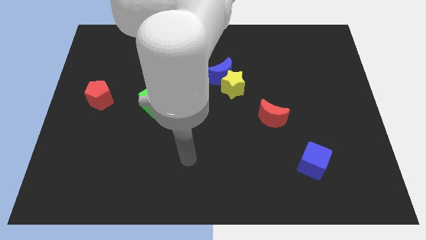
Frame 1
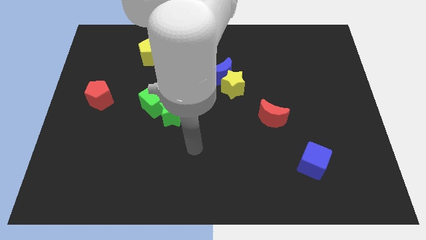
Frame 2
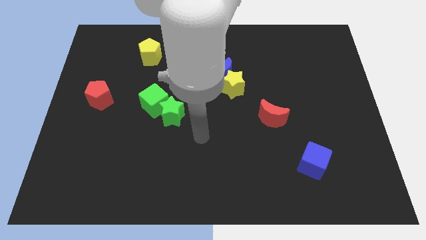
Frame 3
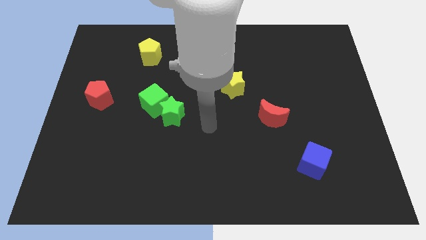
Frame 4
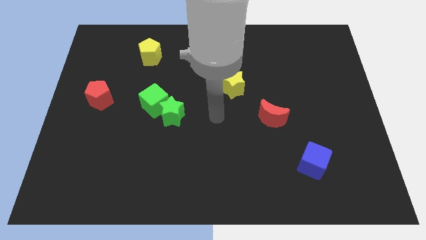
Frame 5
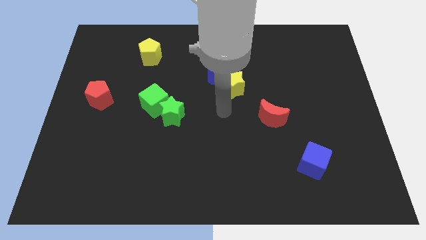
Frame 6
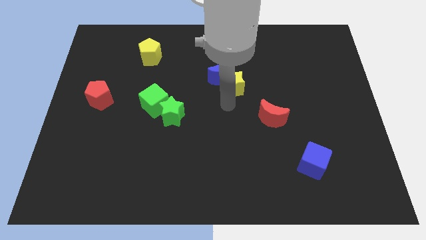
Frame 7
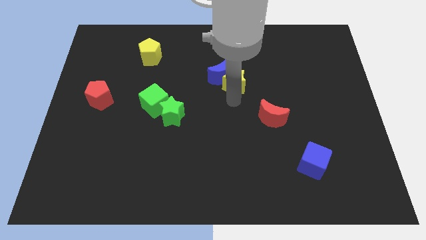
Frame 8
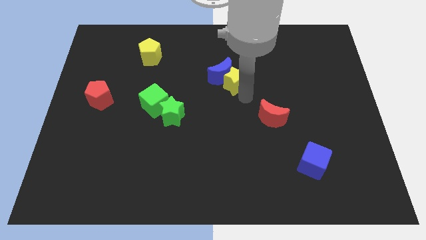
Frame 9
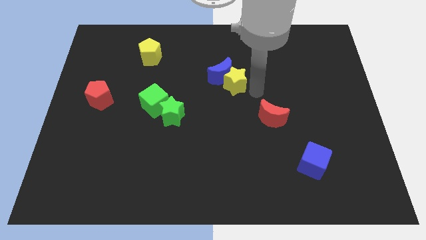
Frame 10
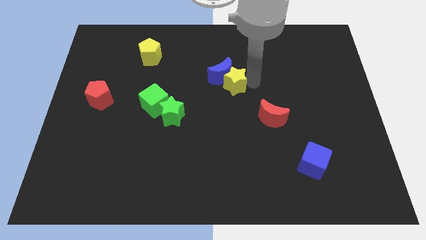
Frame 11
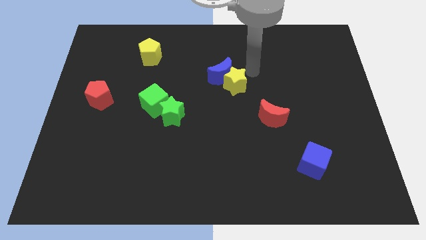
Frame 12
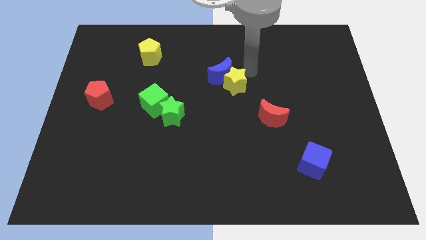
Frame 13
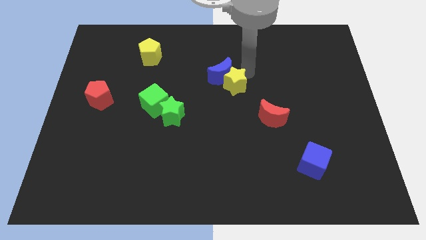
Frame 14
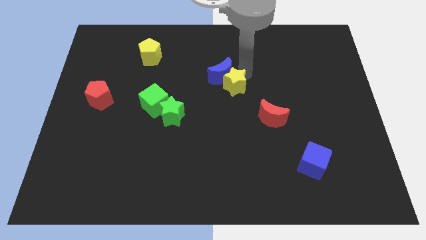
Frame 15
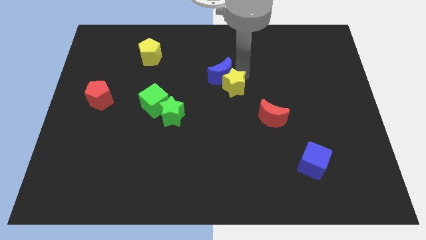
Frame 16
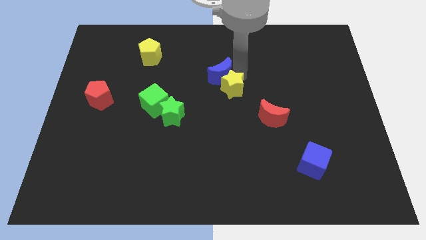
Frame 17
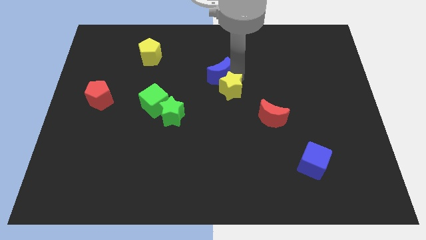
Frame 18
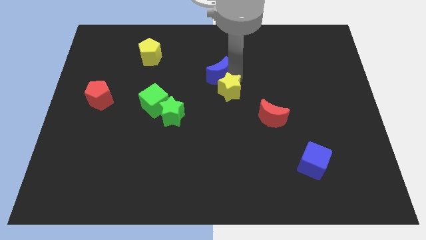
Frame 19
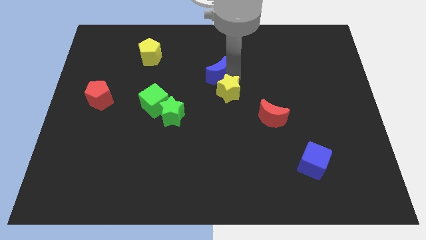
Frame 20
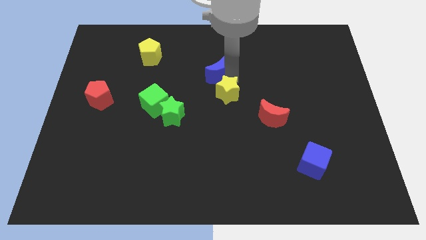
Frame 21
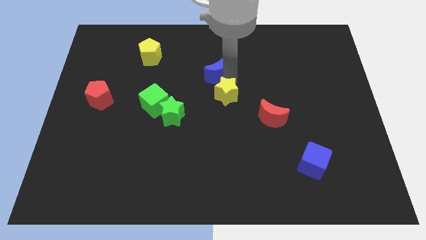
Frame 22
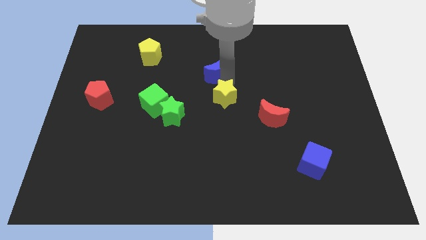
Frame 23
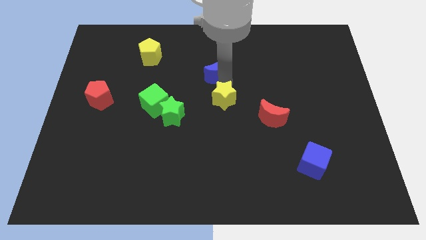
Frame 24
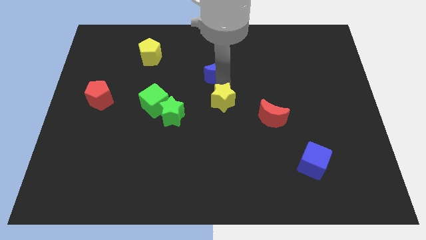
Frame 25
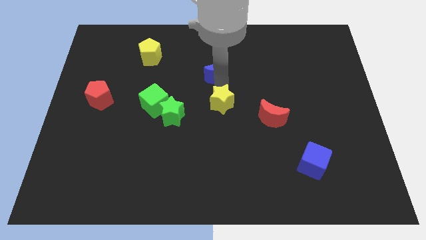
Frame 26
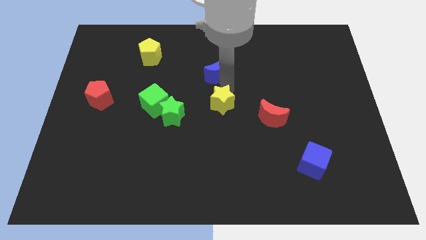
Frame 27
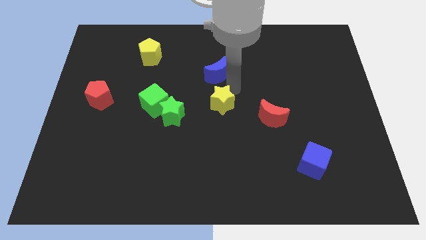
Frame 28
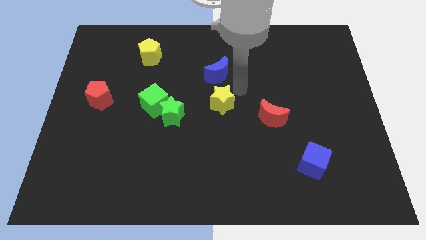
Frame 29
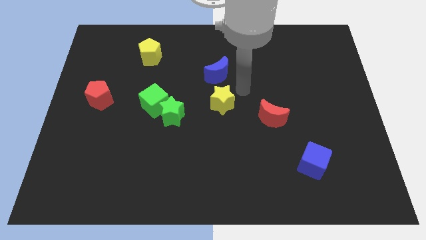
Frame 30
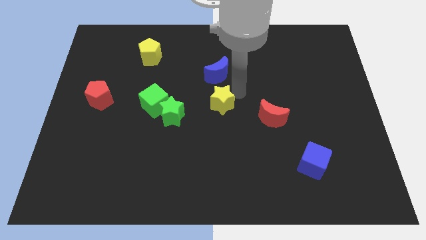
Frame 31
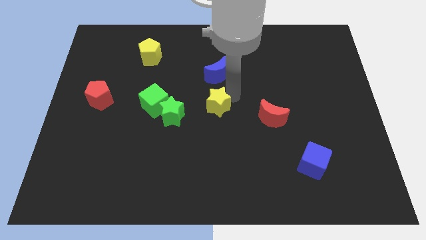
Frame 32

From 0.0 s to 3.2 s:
push the yellow star downwards and to the left a bit

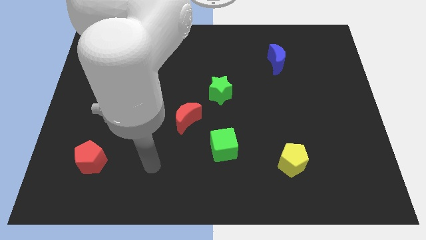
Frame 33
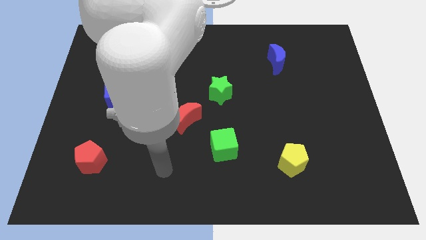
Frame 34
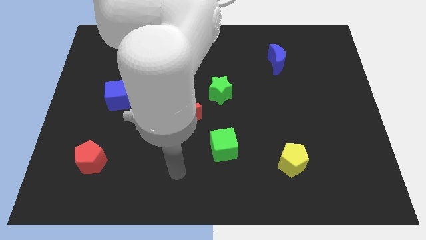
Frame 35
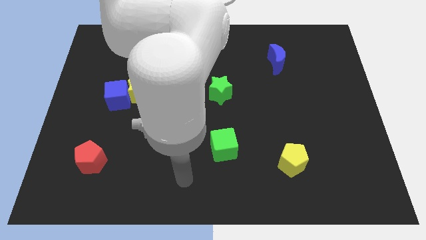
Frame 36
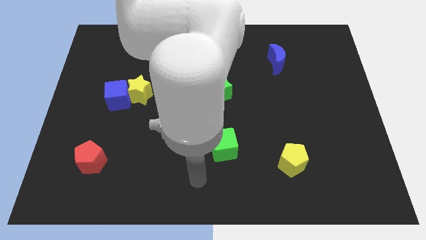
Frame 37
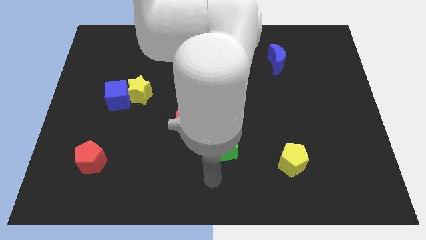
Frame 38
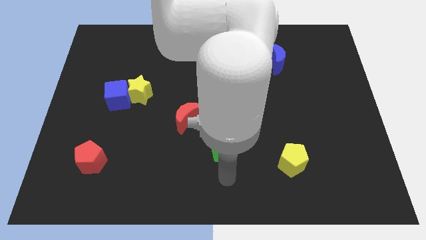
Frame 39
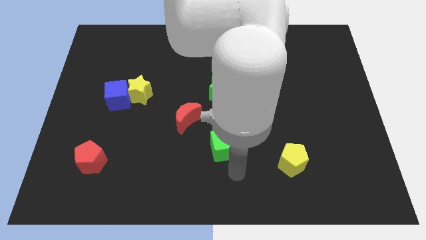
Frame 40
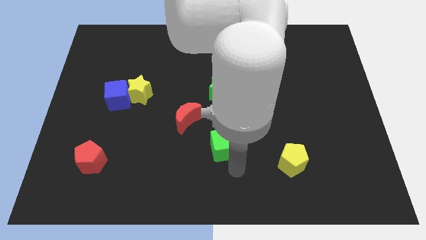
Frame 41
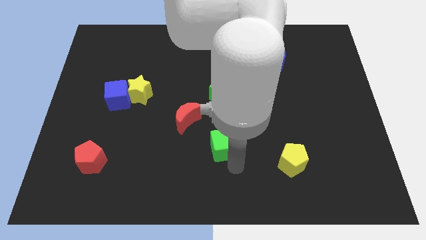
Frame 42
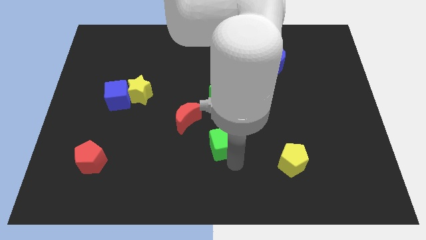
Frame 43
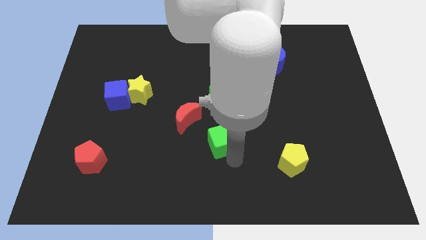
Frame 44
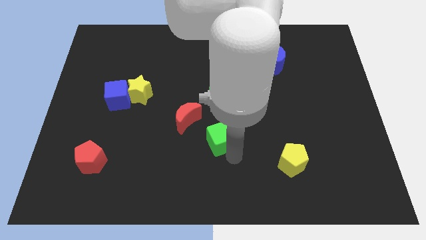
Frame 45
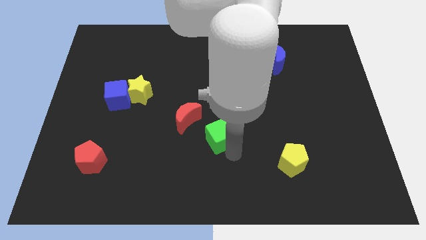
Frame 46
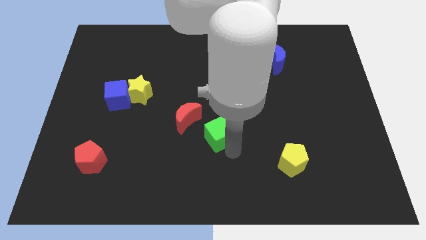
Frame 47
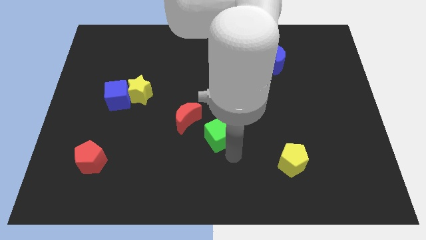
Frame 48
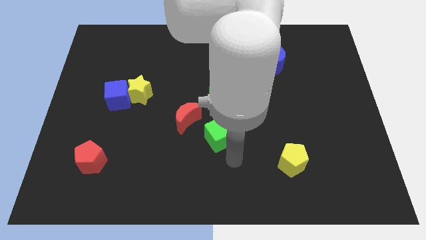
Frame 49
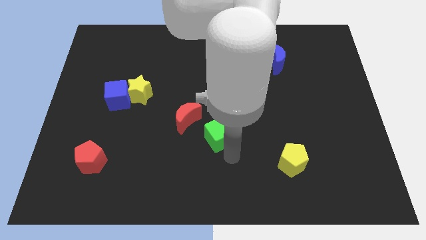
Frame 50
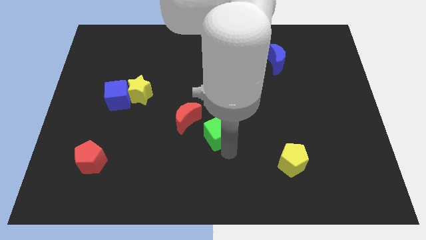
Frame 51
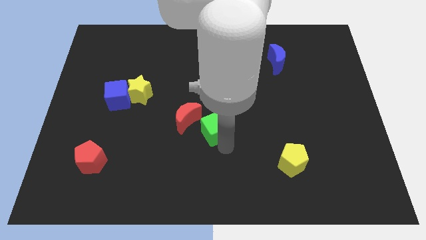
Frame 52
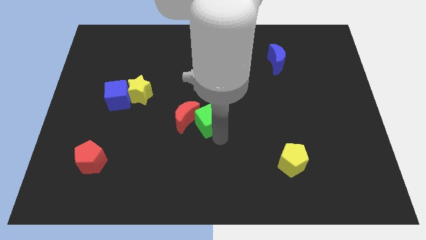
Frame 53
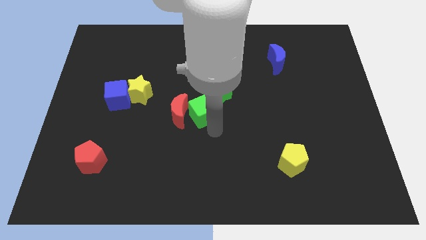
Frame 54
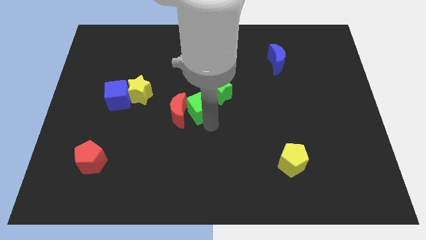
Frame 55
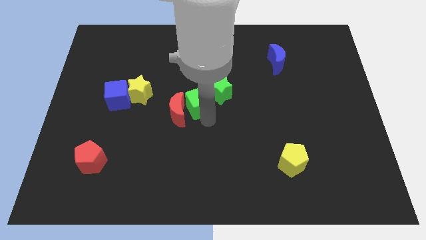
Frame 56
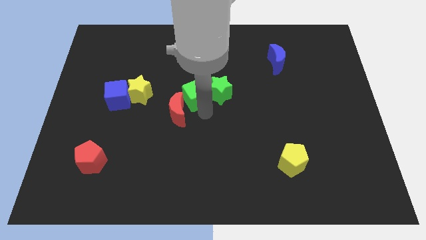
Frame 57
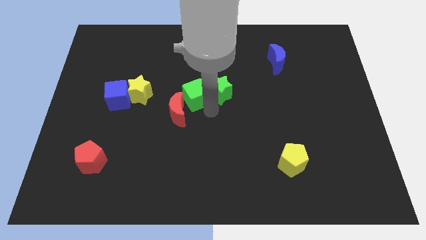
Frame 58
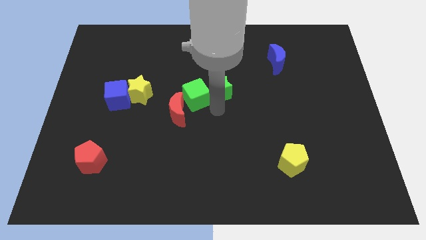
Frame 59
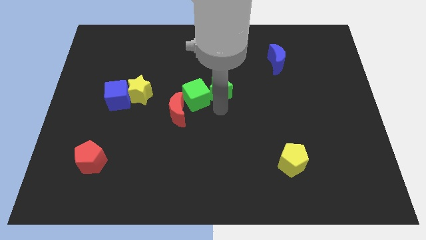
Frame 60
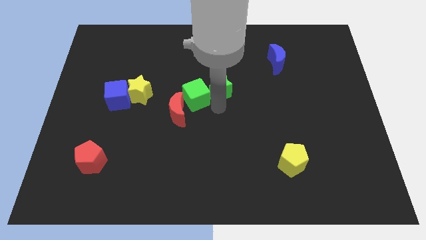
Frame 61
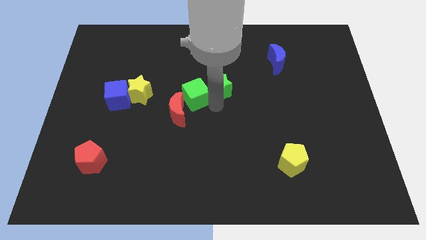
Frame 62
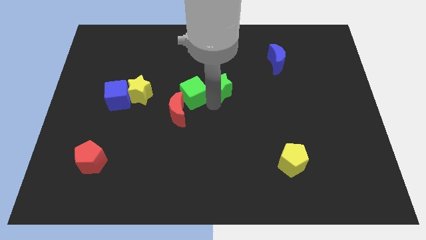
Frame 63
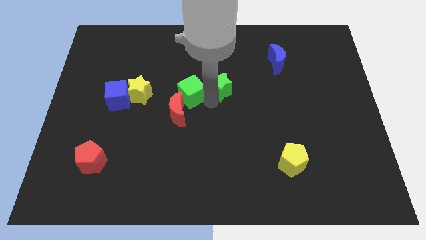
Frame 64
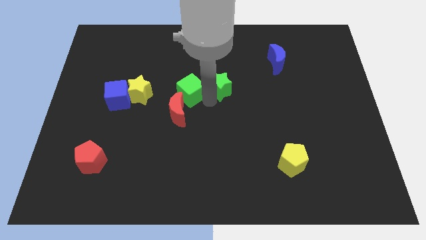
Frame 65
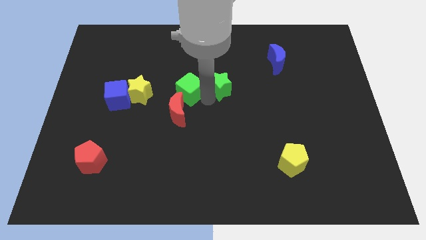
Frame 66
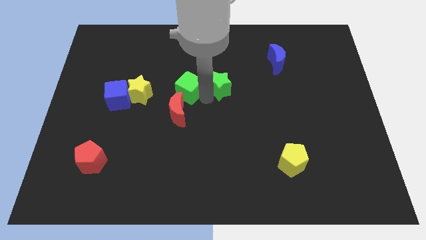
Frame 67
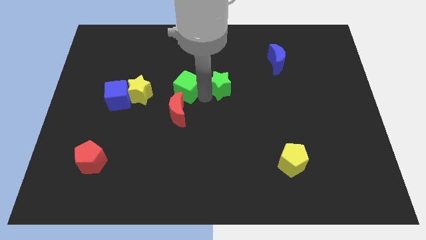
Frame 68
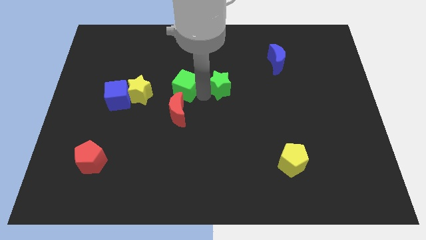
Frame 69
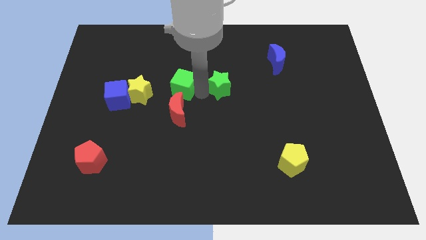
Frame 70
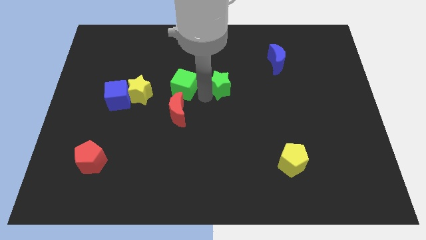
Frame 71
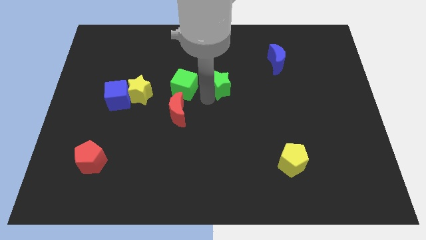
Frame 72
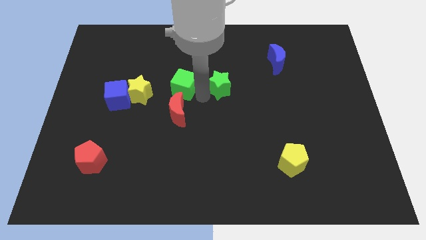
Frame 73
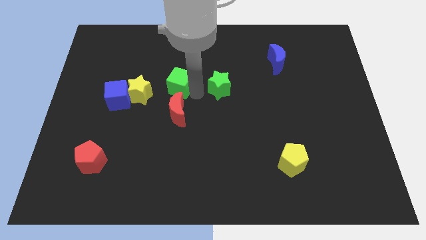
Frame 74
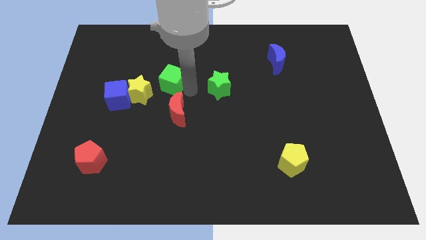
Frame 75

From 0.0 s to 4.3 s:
slide the green cube upwards and left diagonally

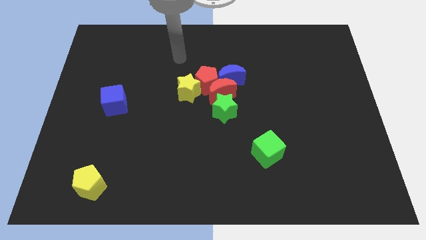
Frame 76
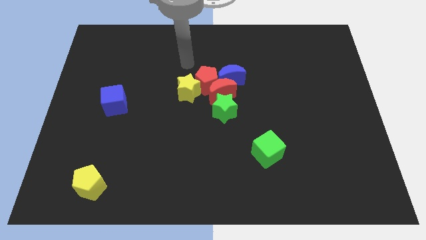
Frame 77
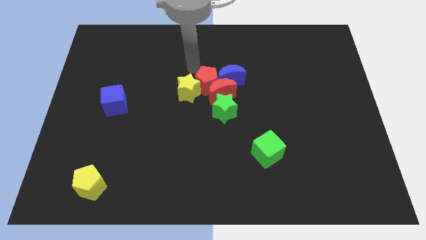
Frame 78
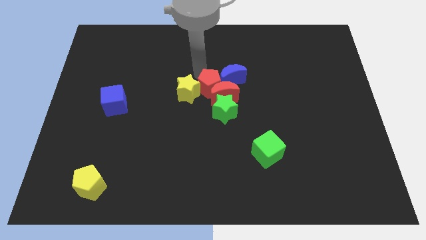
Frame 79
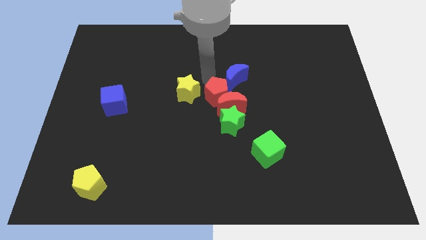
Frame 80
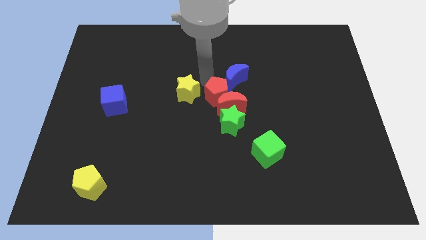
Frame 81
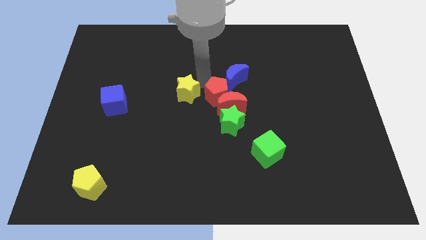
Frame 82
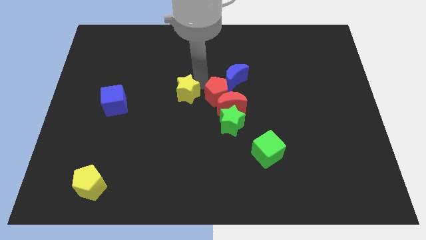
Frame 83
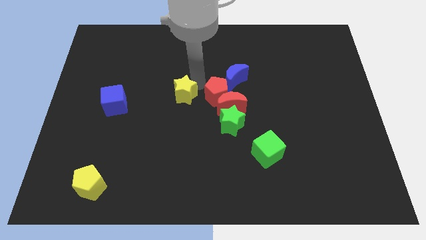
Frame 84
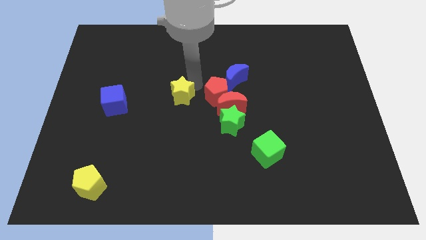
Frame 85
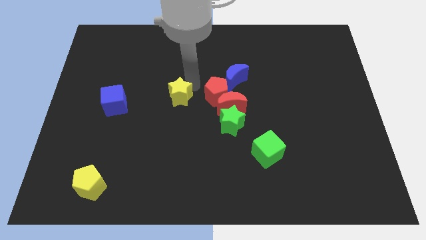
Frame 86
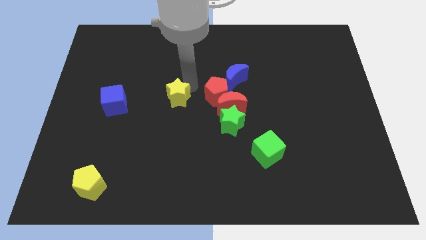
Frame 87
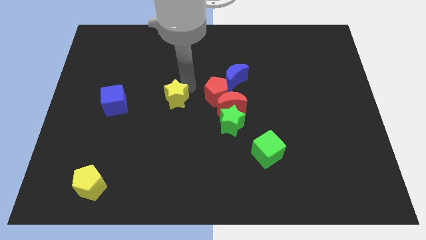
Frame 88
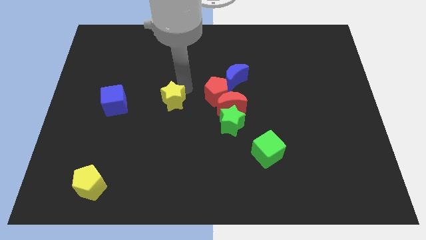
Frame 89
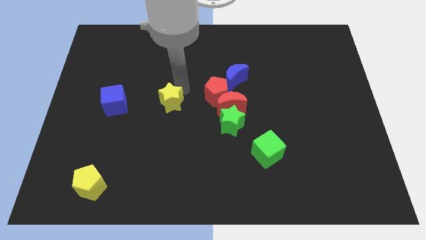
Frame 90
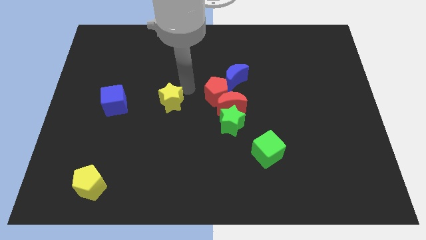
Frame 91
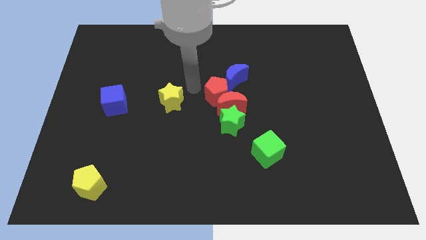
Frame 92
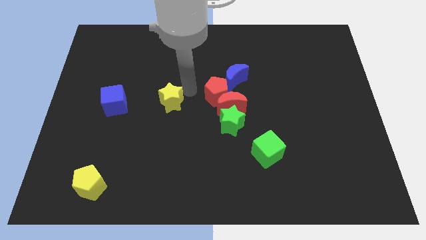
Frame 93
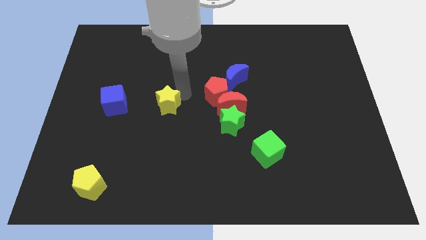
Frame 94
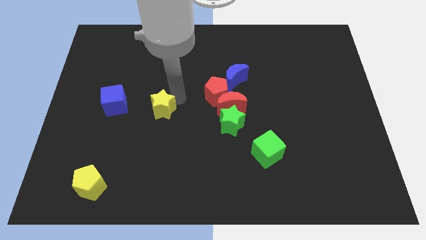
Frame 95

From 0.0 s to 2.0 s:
slightly slide the yellow star down and to the left
